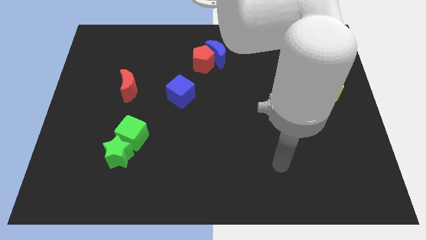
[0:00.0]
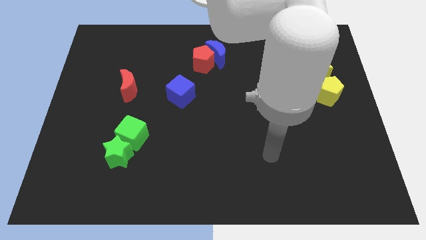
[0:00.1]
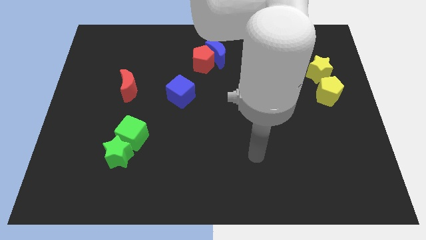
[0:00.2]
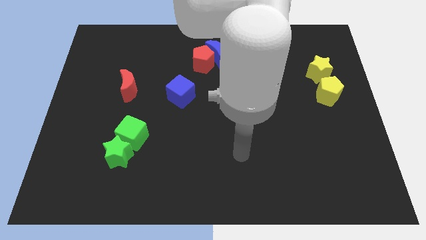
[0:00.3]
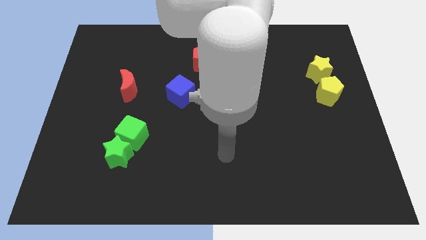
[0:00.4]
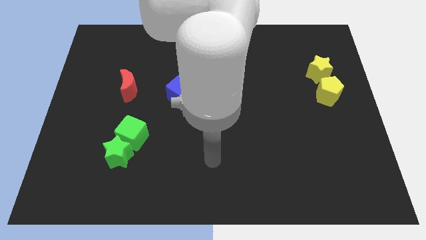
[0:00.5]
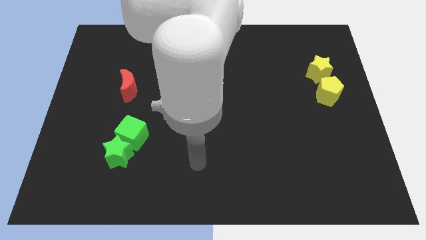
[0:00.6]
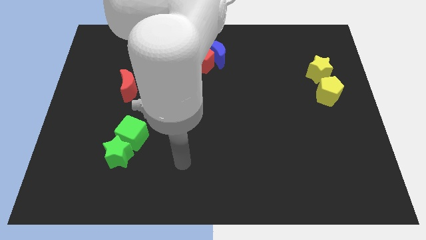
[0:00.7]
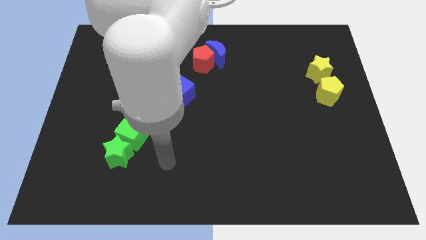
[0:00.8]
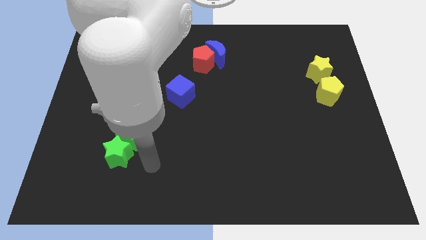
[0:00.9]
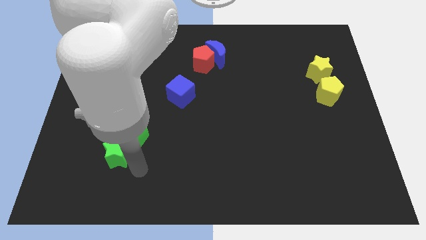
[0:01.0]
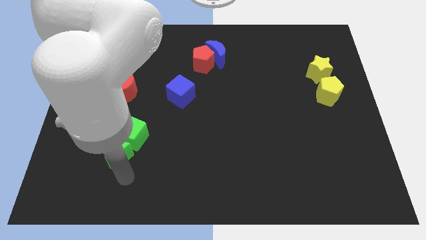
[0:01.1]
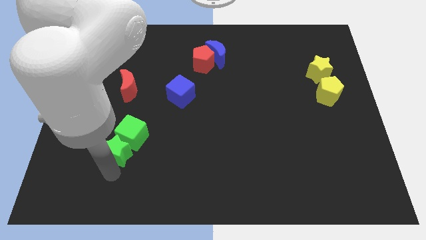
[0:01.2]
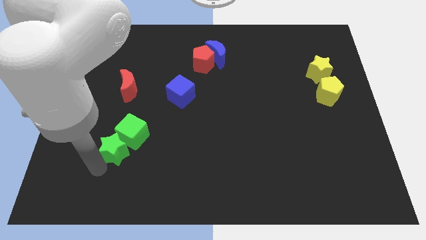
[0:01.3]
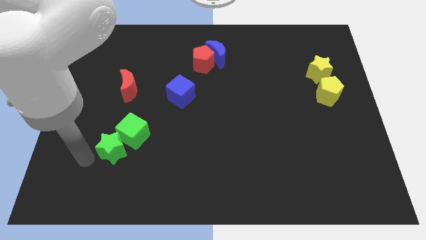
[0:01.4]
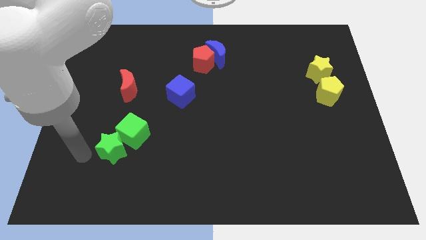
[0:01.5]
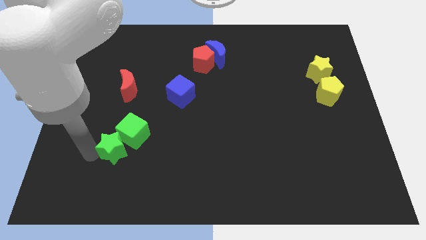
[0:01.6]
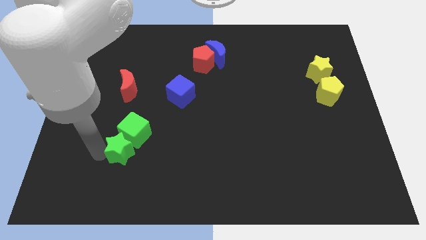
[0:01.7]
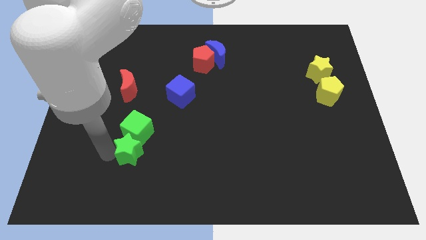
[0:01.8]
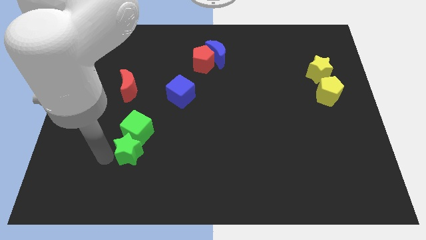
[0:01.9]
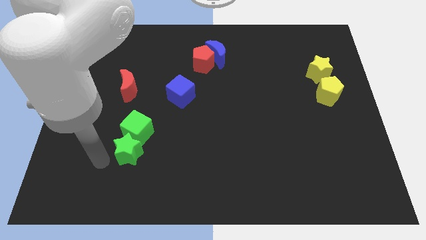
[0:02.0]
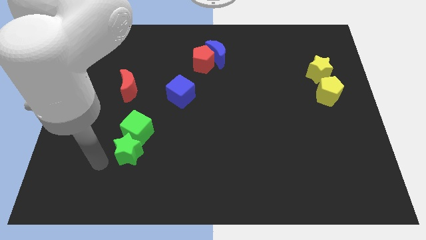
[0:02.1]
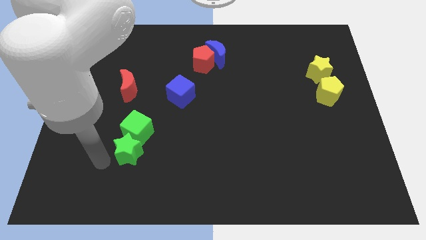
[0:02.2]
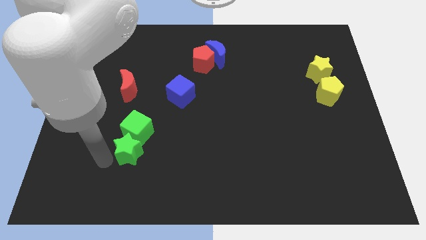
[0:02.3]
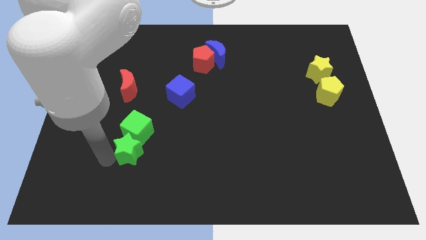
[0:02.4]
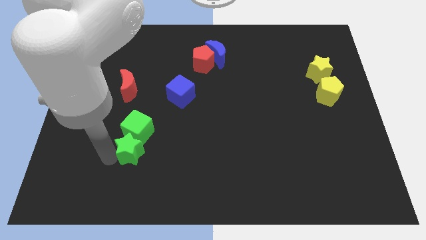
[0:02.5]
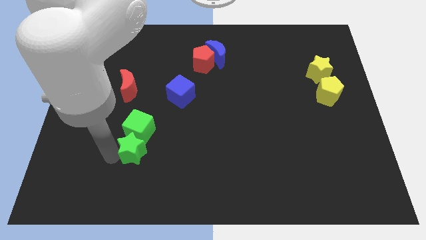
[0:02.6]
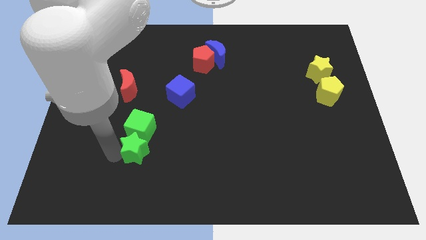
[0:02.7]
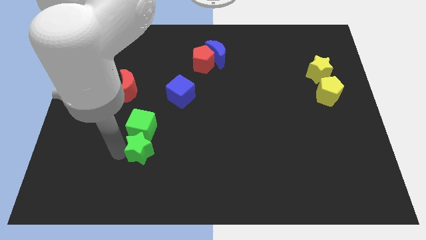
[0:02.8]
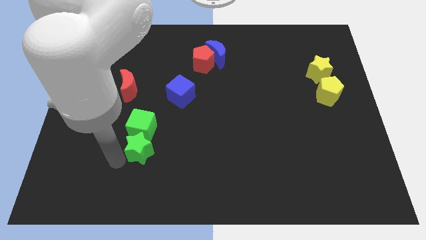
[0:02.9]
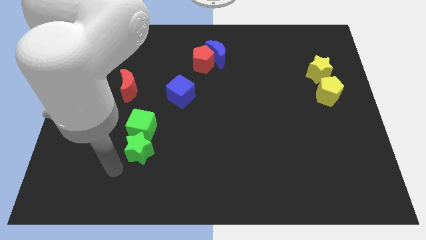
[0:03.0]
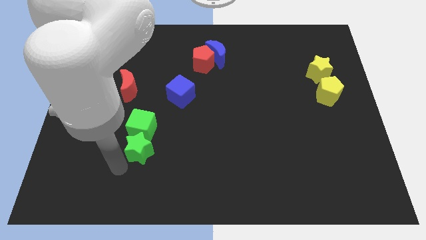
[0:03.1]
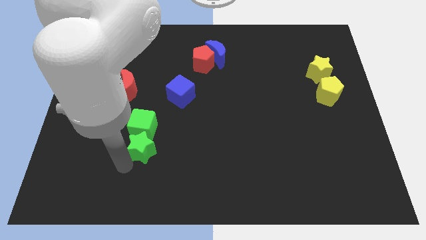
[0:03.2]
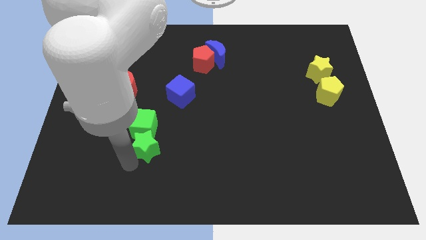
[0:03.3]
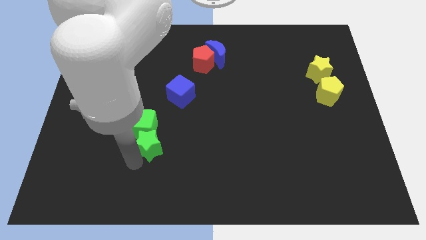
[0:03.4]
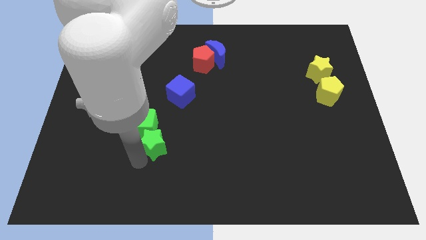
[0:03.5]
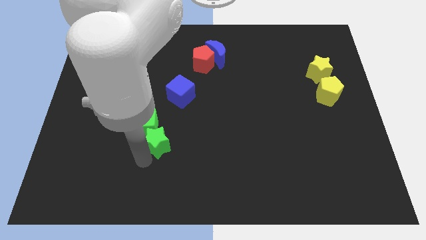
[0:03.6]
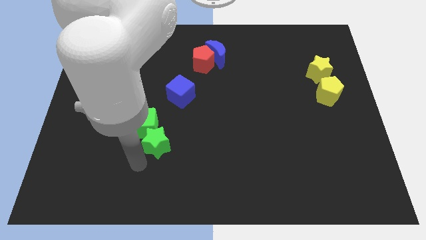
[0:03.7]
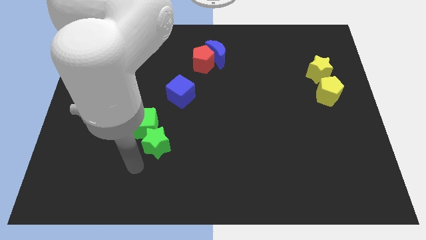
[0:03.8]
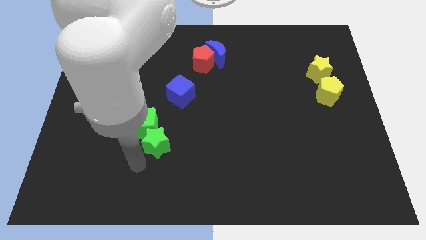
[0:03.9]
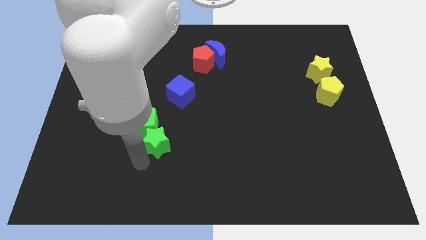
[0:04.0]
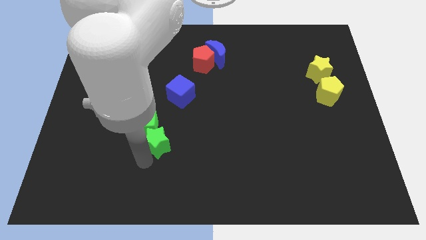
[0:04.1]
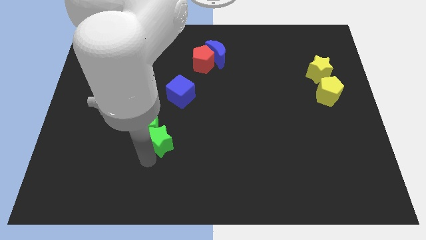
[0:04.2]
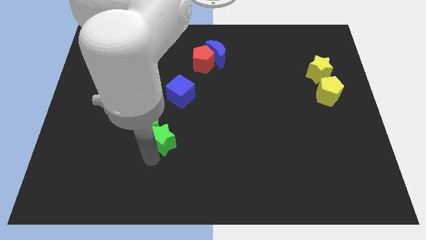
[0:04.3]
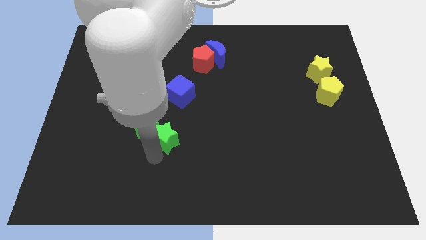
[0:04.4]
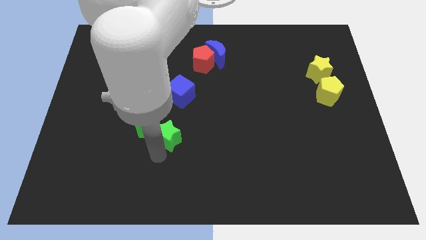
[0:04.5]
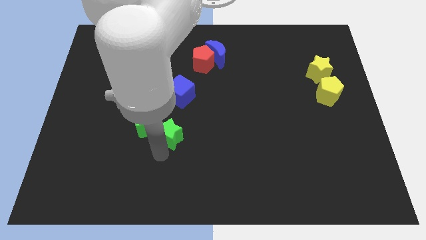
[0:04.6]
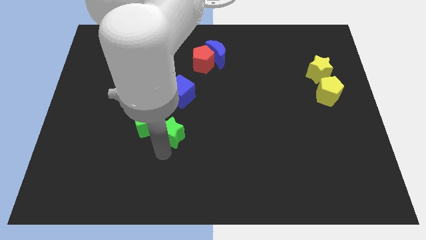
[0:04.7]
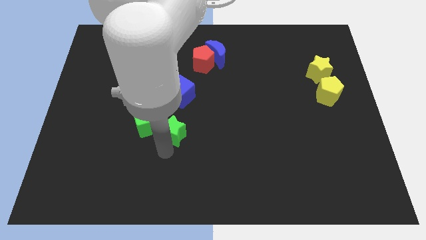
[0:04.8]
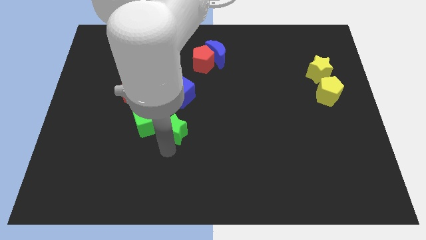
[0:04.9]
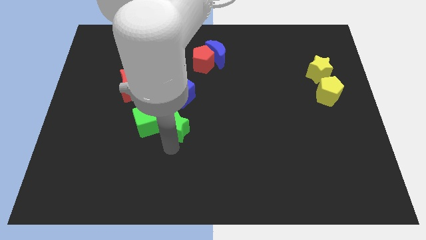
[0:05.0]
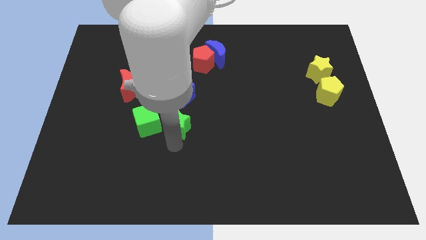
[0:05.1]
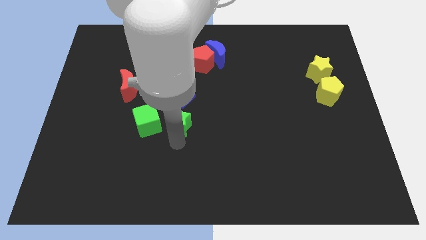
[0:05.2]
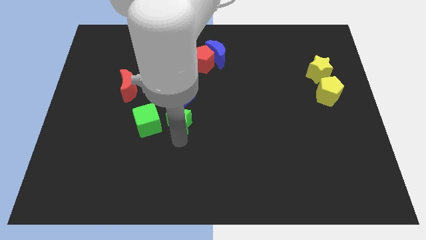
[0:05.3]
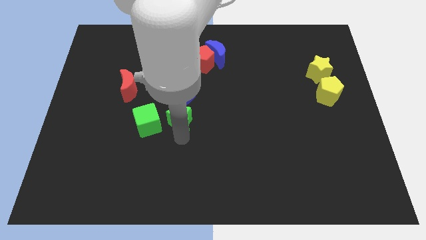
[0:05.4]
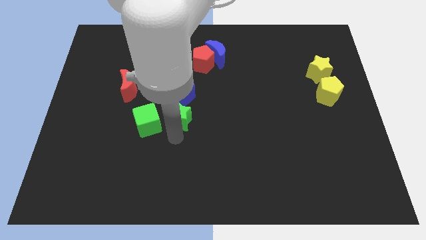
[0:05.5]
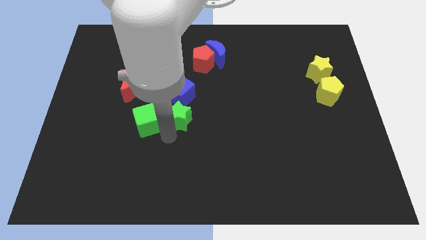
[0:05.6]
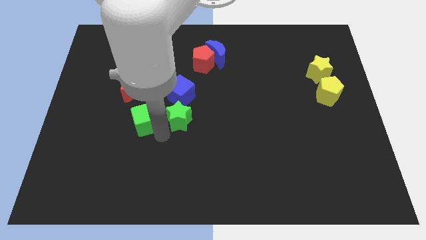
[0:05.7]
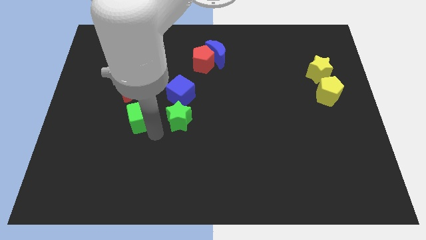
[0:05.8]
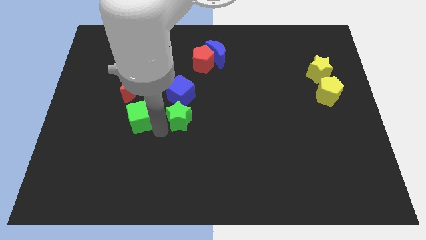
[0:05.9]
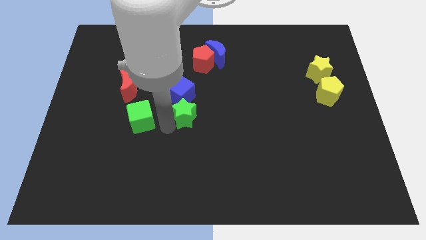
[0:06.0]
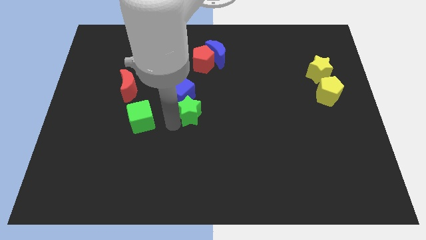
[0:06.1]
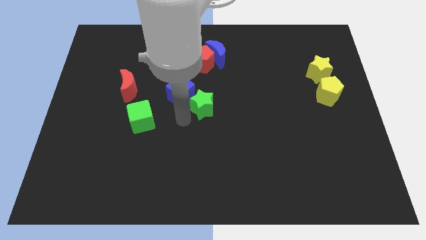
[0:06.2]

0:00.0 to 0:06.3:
slide the green star up and then right

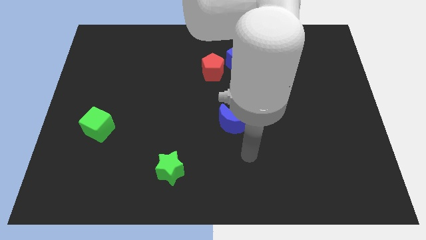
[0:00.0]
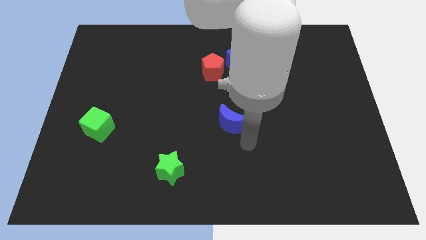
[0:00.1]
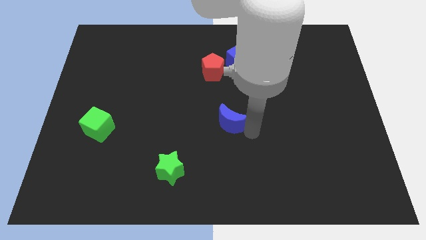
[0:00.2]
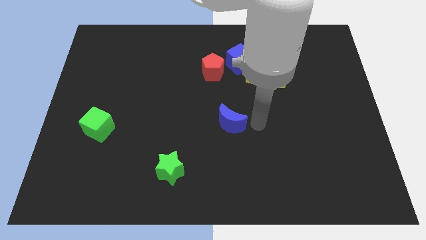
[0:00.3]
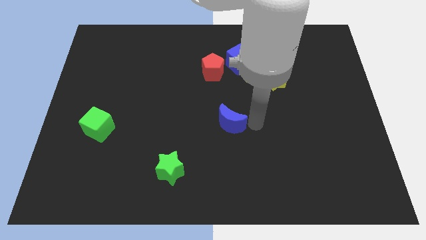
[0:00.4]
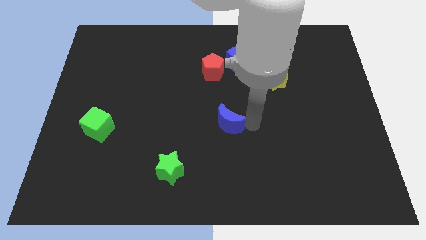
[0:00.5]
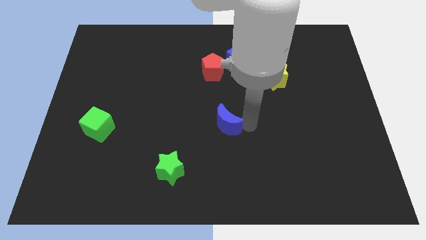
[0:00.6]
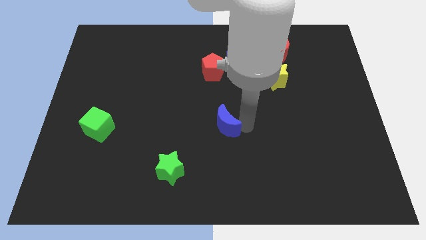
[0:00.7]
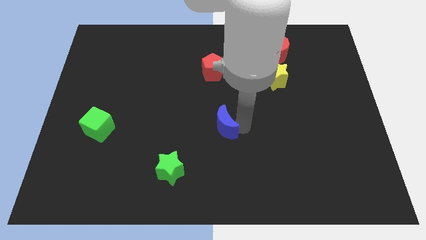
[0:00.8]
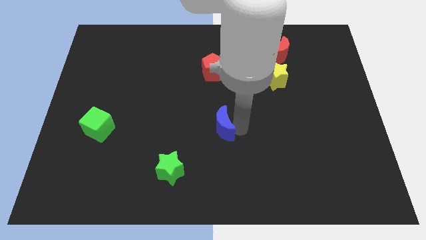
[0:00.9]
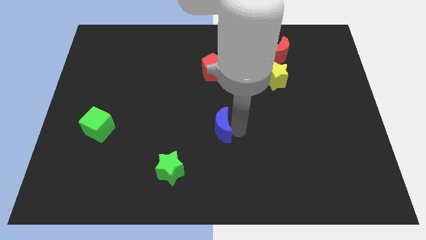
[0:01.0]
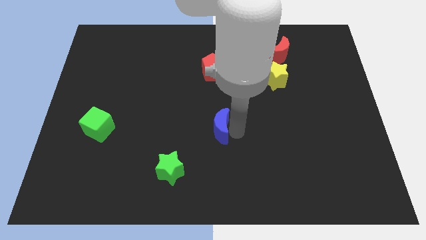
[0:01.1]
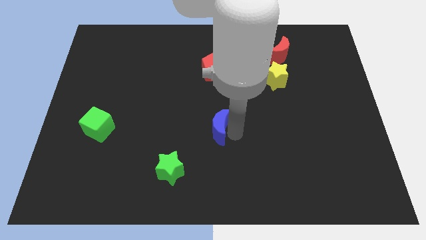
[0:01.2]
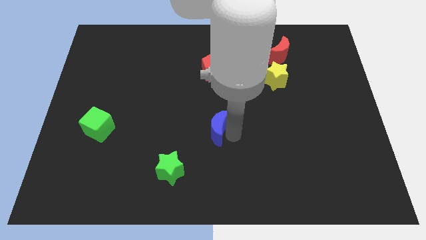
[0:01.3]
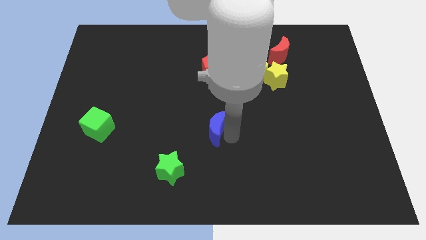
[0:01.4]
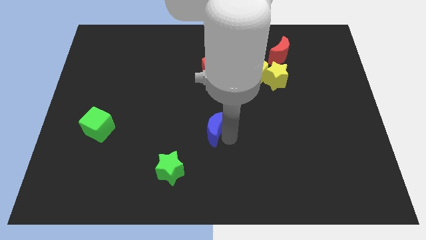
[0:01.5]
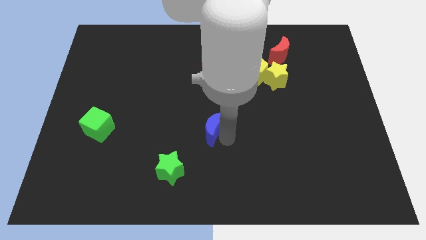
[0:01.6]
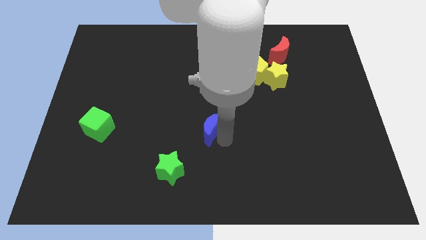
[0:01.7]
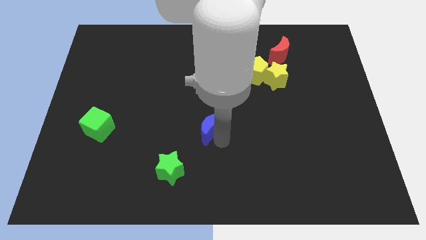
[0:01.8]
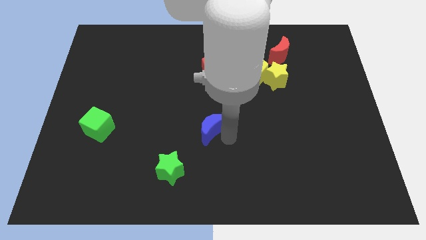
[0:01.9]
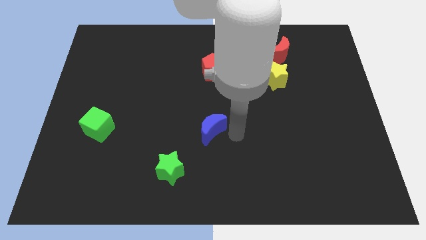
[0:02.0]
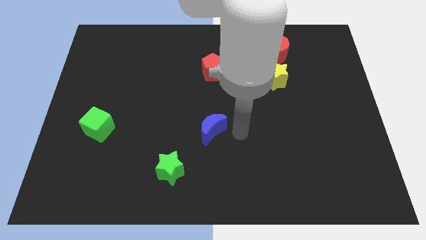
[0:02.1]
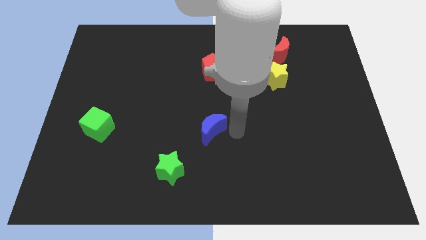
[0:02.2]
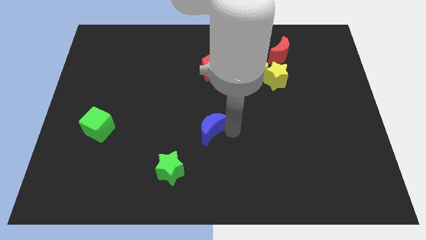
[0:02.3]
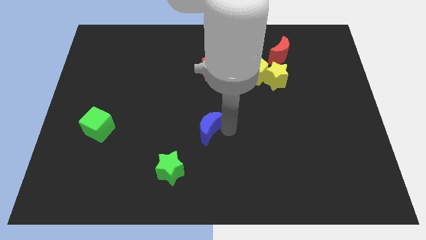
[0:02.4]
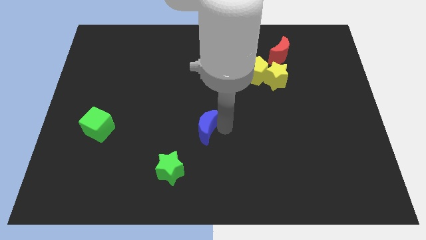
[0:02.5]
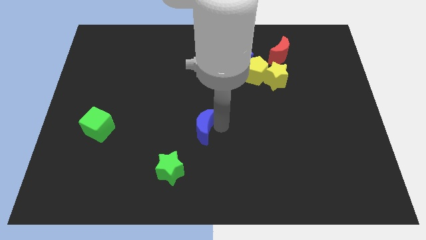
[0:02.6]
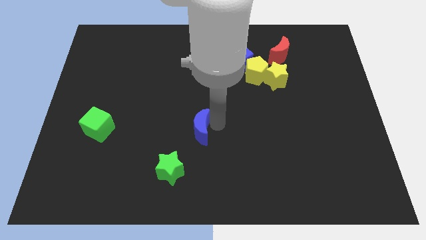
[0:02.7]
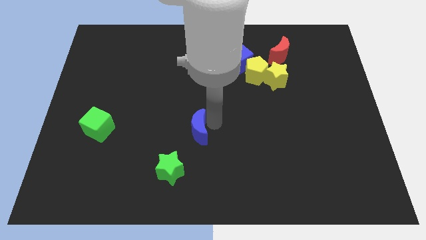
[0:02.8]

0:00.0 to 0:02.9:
move the blue moon to the left slightly
